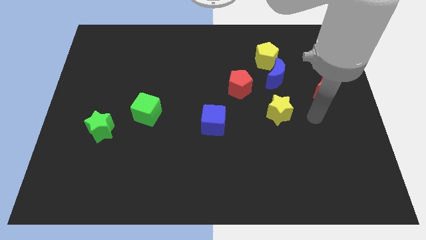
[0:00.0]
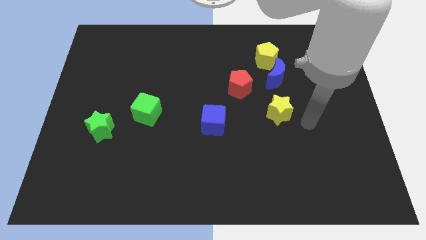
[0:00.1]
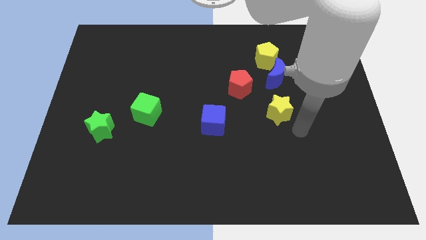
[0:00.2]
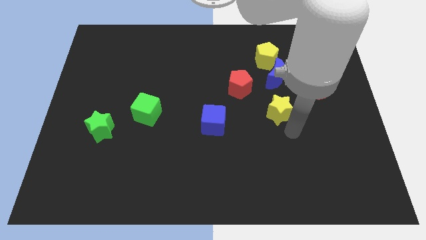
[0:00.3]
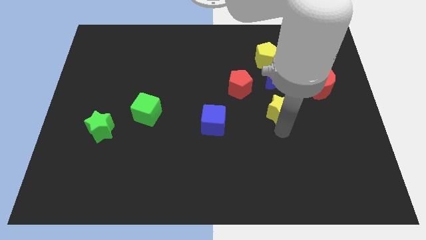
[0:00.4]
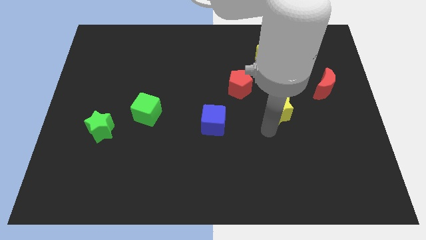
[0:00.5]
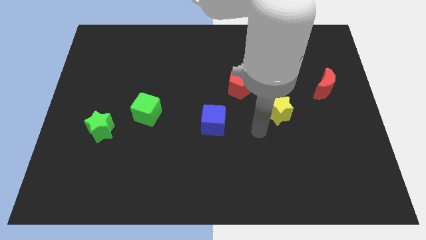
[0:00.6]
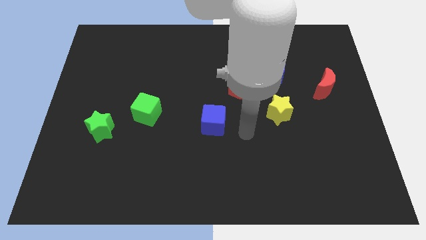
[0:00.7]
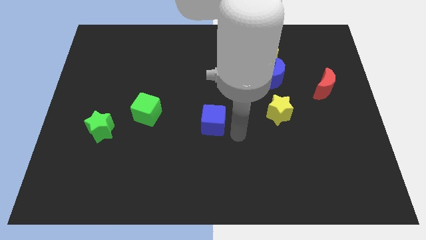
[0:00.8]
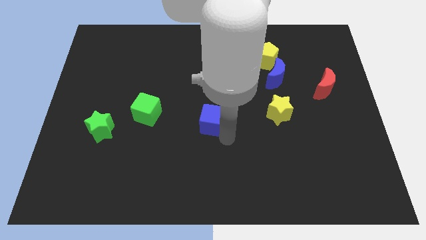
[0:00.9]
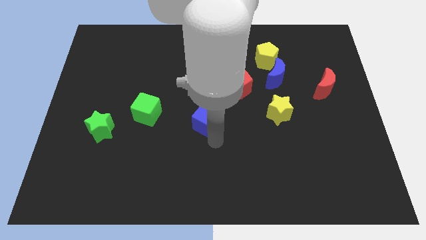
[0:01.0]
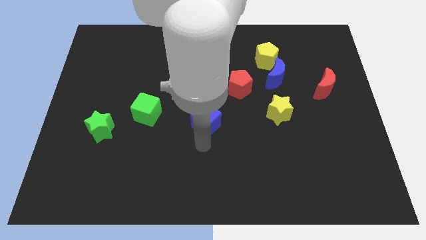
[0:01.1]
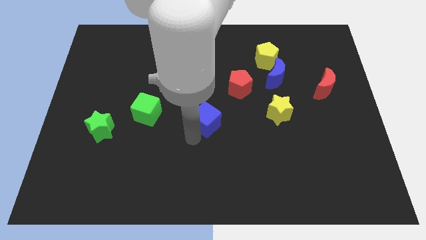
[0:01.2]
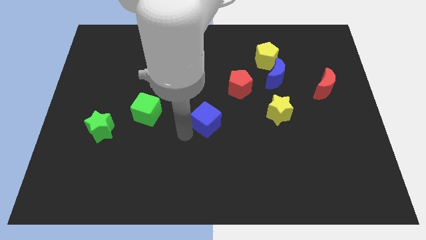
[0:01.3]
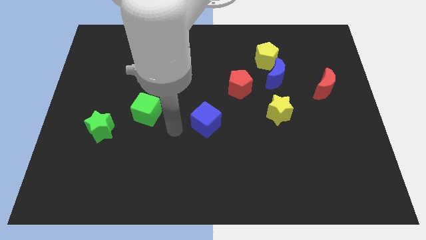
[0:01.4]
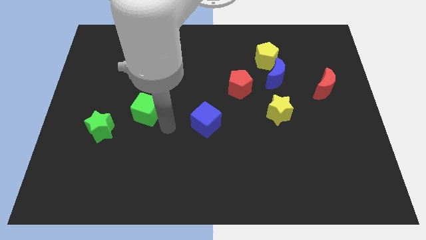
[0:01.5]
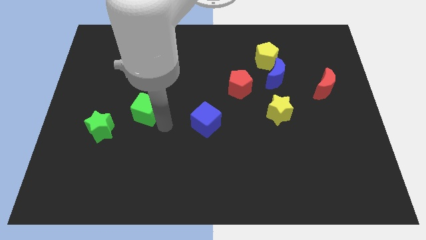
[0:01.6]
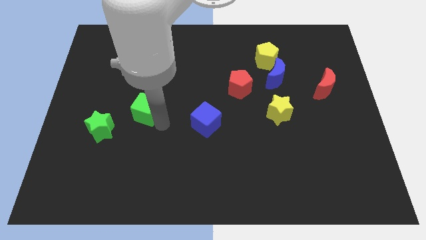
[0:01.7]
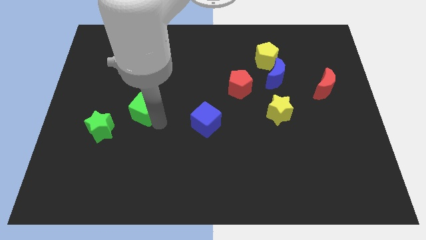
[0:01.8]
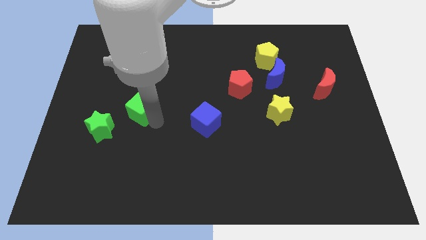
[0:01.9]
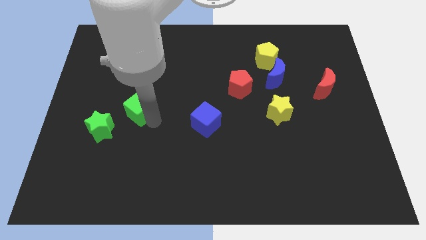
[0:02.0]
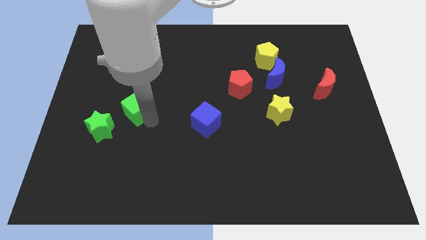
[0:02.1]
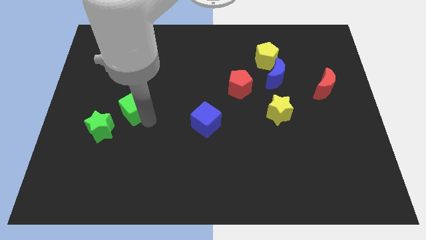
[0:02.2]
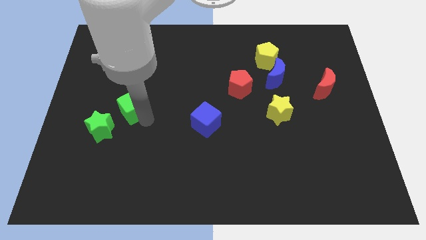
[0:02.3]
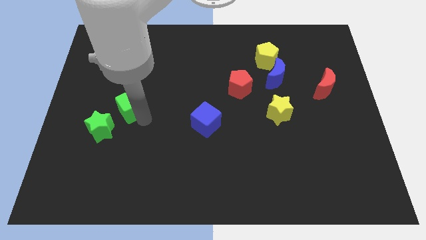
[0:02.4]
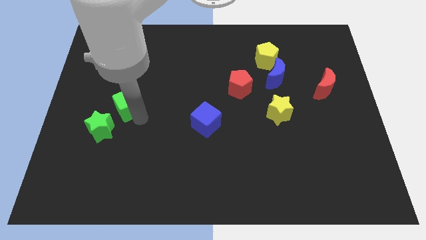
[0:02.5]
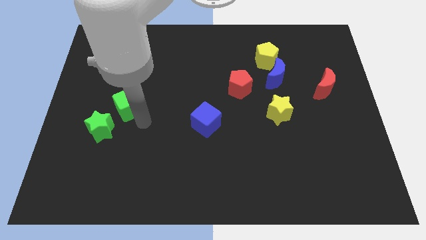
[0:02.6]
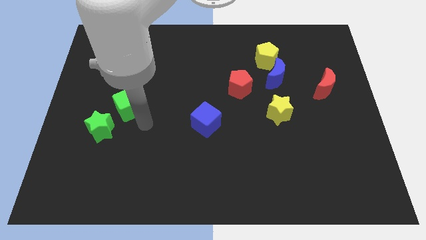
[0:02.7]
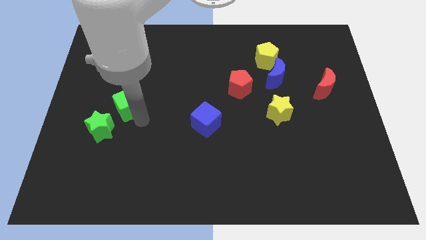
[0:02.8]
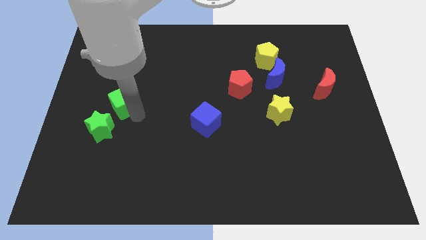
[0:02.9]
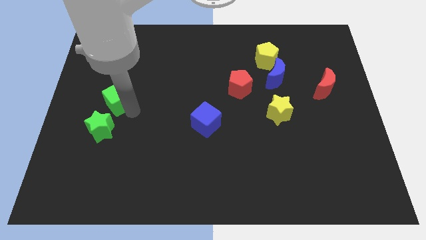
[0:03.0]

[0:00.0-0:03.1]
slide the green cube slightly upwards and then left

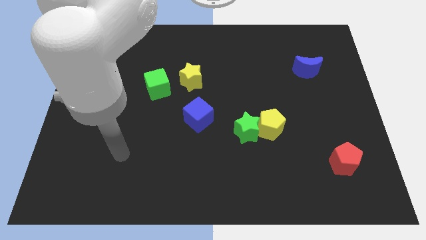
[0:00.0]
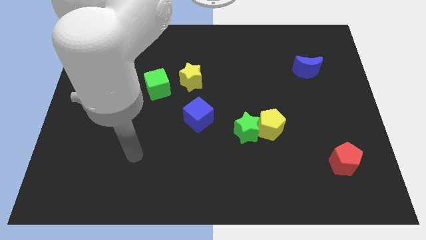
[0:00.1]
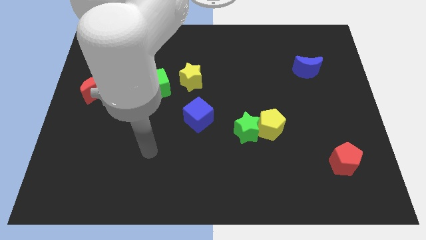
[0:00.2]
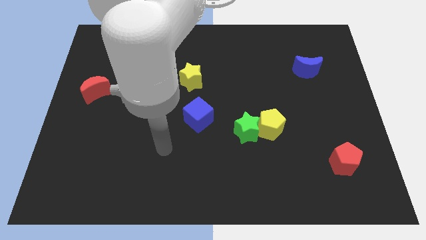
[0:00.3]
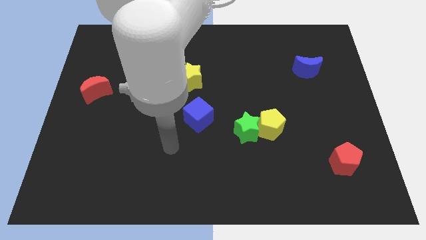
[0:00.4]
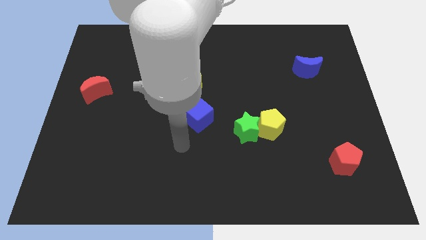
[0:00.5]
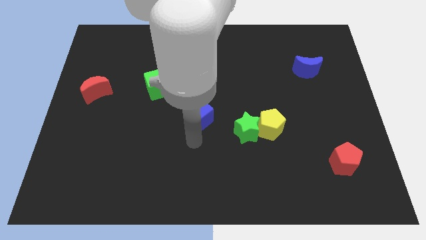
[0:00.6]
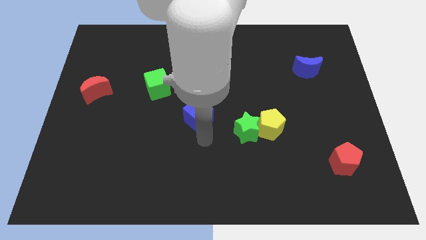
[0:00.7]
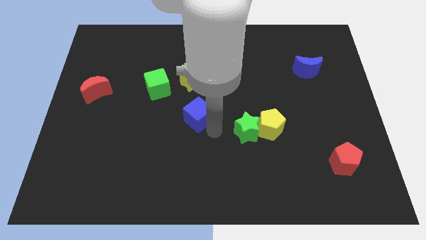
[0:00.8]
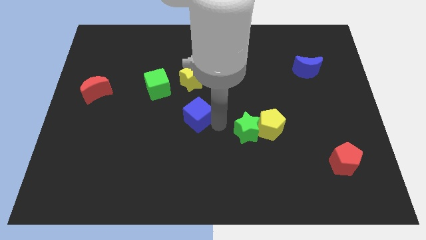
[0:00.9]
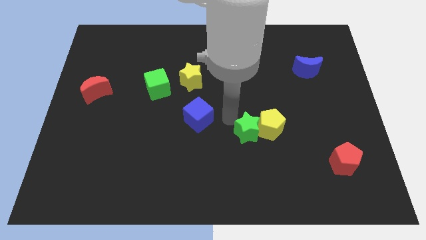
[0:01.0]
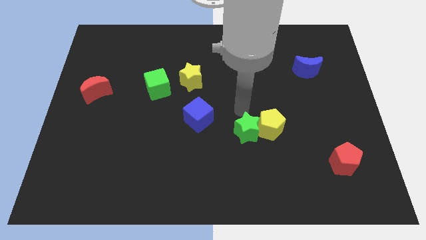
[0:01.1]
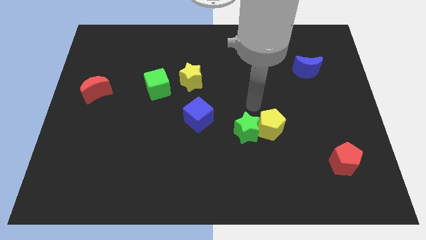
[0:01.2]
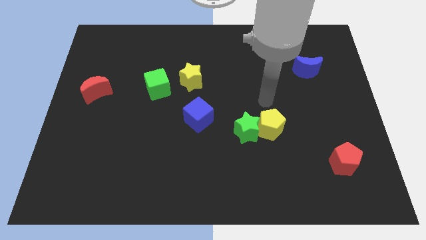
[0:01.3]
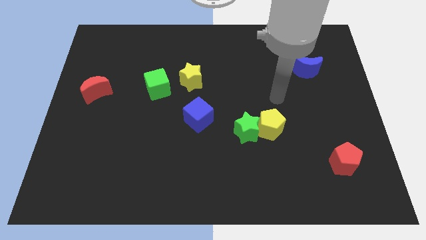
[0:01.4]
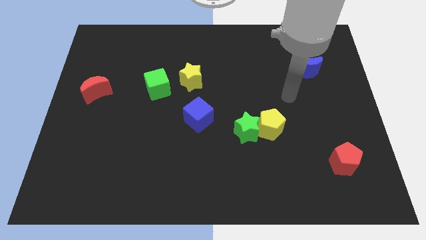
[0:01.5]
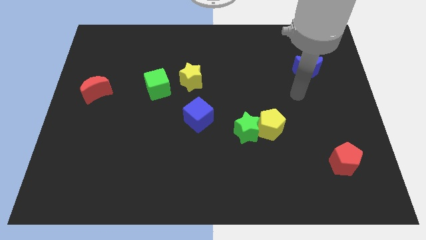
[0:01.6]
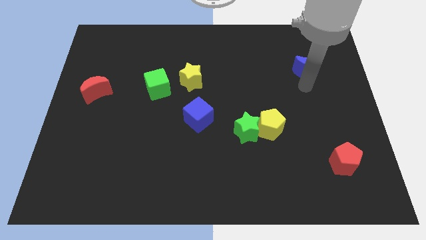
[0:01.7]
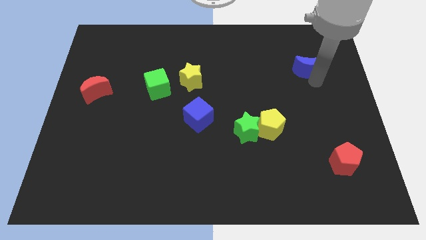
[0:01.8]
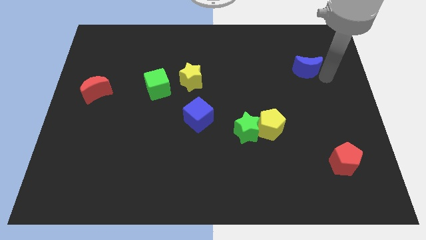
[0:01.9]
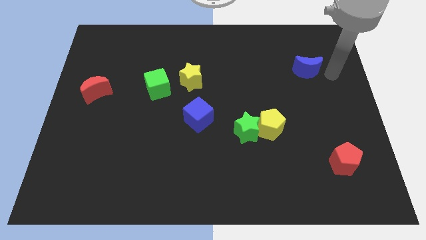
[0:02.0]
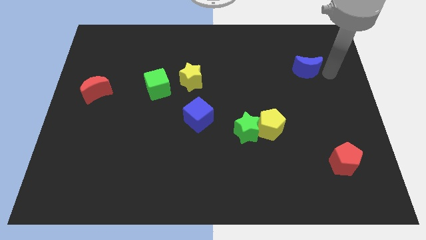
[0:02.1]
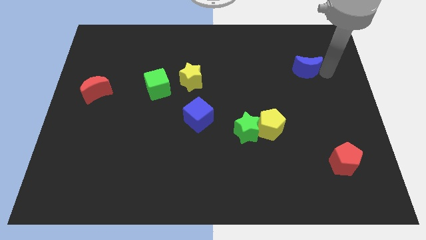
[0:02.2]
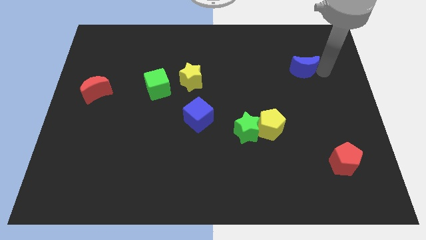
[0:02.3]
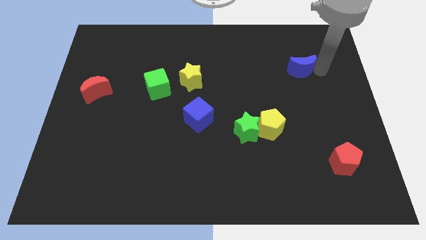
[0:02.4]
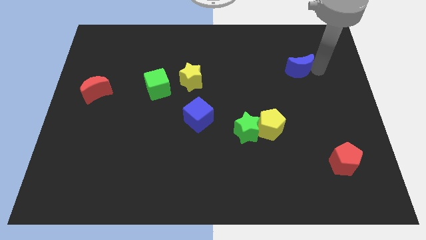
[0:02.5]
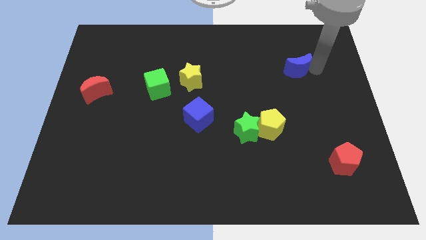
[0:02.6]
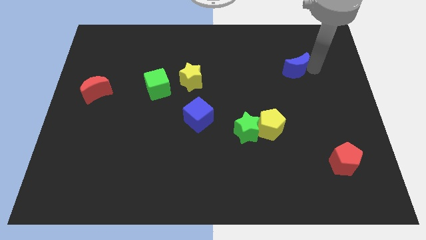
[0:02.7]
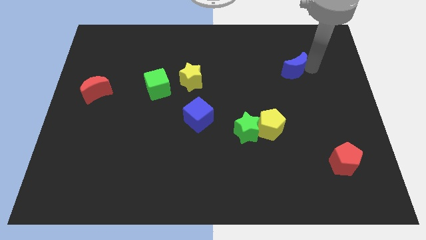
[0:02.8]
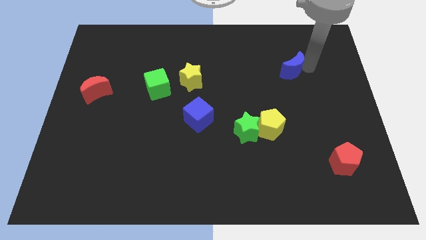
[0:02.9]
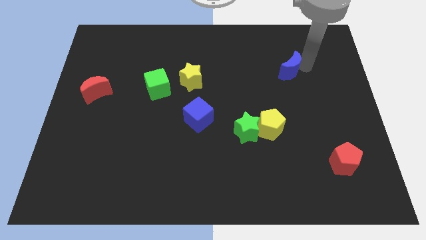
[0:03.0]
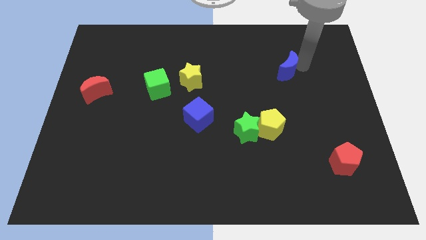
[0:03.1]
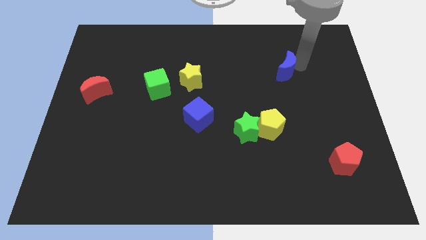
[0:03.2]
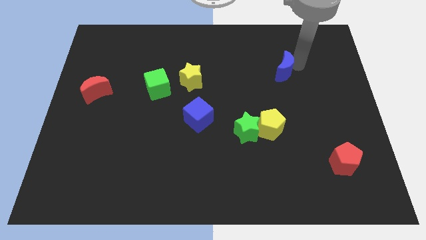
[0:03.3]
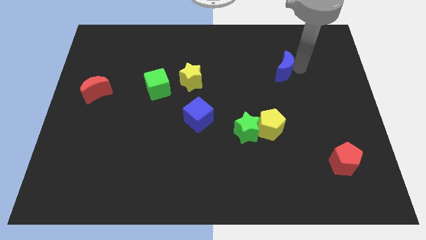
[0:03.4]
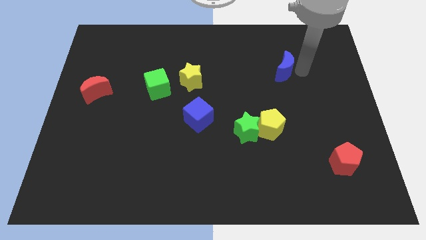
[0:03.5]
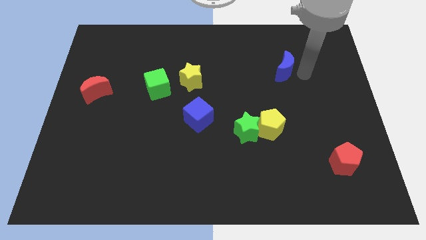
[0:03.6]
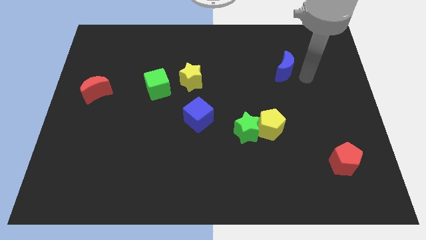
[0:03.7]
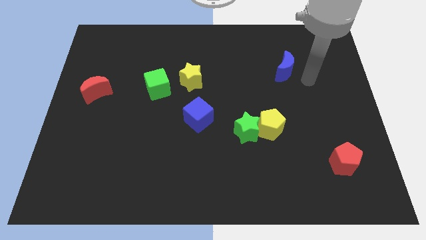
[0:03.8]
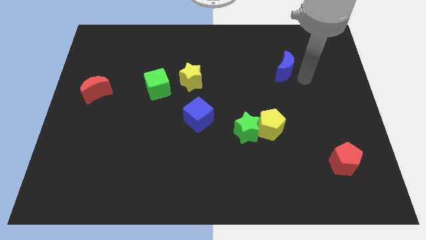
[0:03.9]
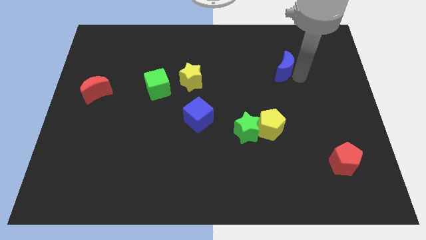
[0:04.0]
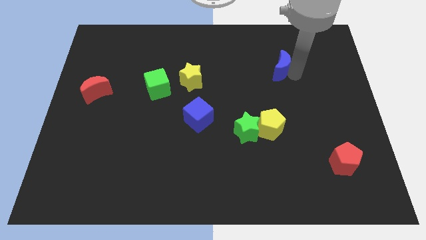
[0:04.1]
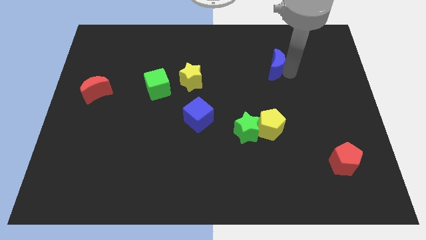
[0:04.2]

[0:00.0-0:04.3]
push the blue moon to the left somewhat

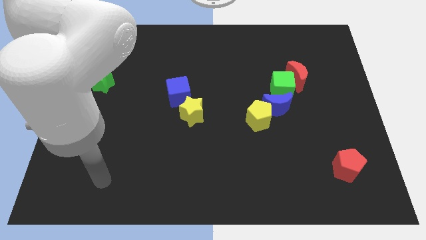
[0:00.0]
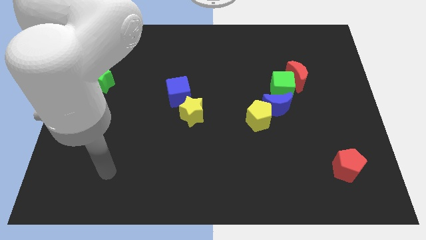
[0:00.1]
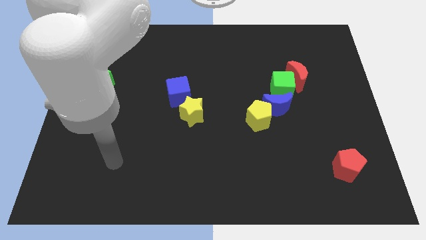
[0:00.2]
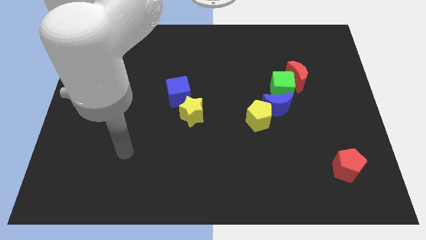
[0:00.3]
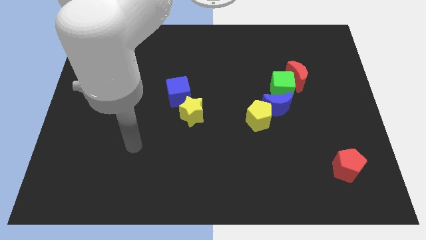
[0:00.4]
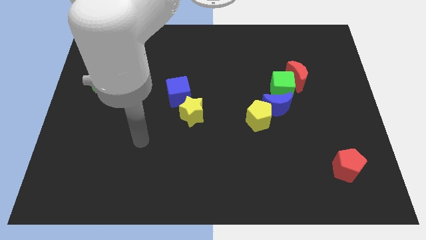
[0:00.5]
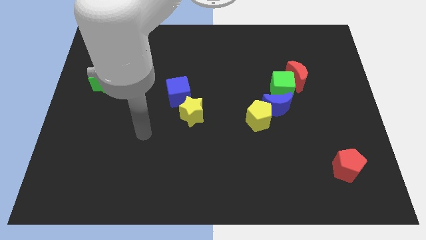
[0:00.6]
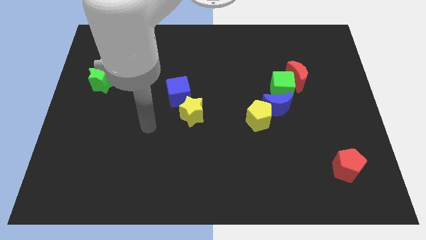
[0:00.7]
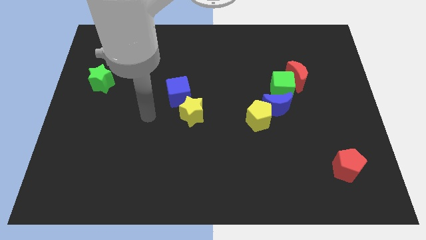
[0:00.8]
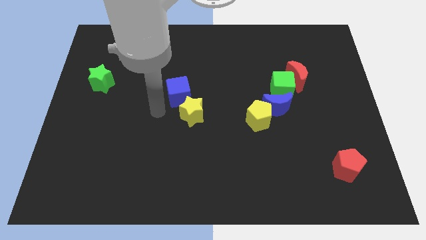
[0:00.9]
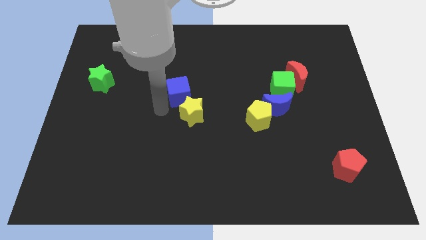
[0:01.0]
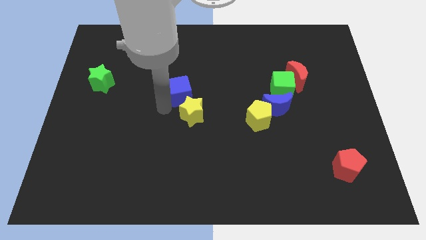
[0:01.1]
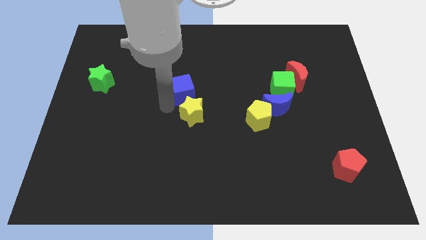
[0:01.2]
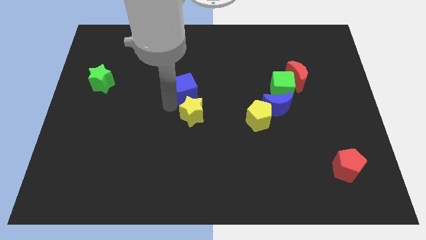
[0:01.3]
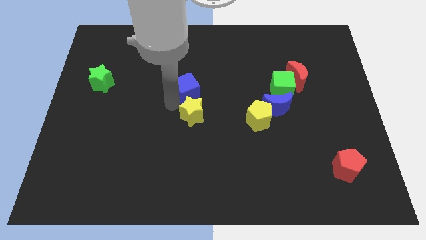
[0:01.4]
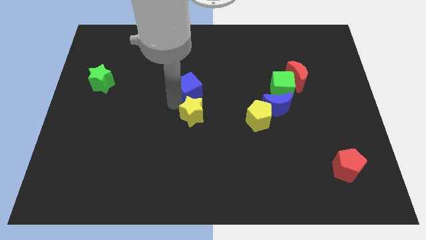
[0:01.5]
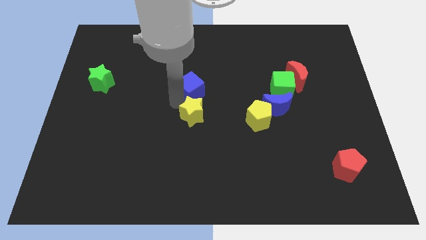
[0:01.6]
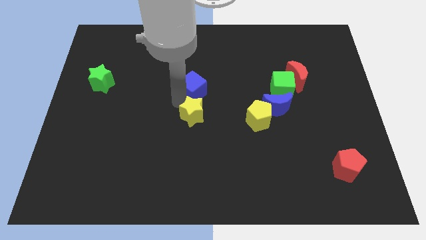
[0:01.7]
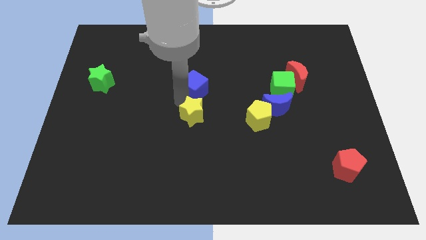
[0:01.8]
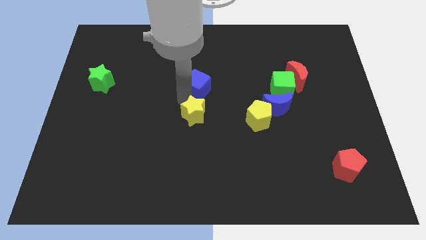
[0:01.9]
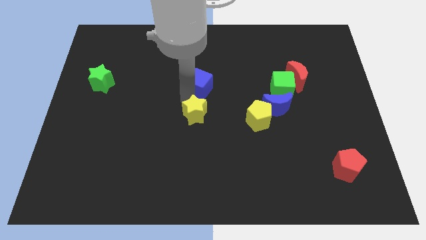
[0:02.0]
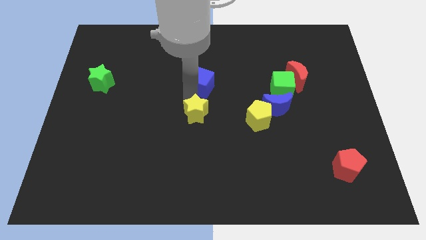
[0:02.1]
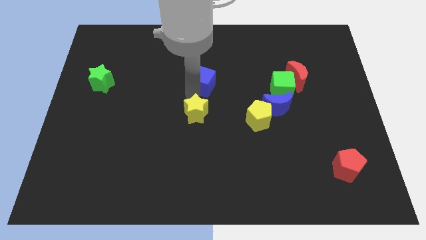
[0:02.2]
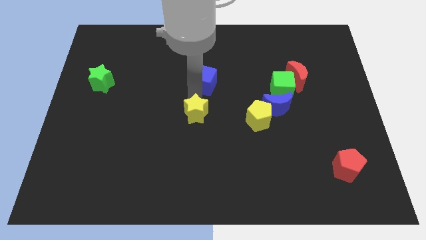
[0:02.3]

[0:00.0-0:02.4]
slightly slide the blue cube diagonally upwards and to the right
